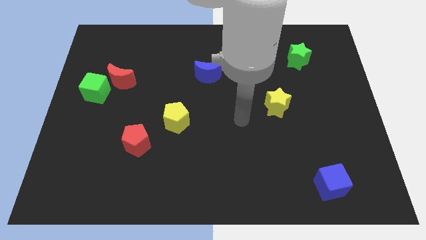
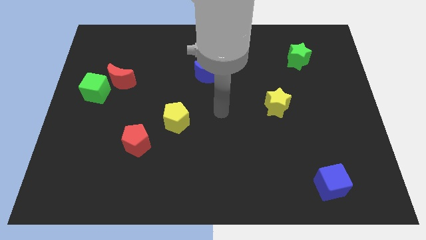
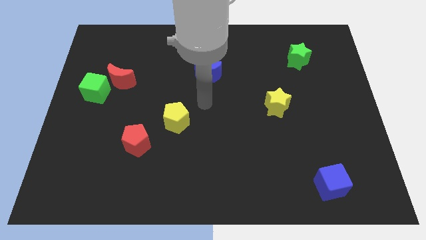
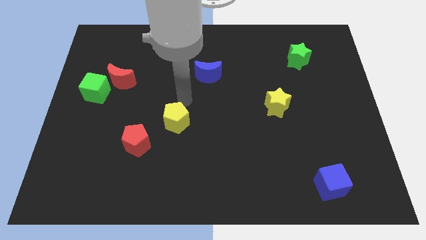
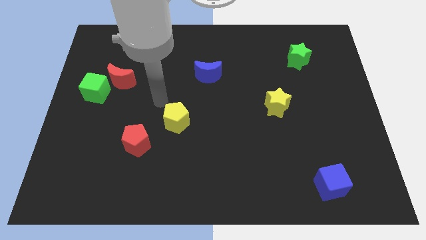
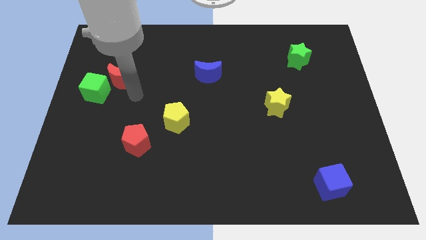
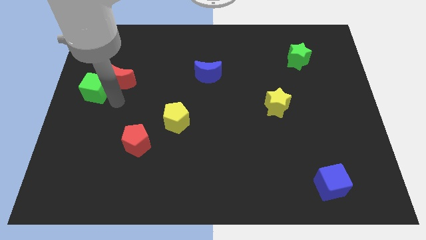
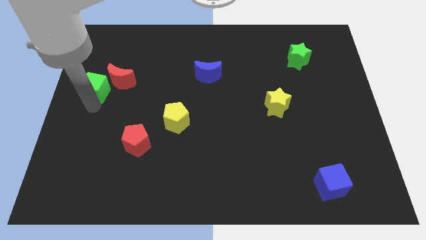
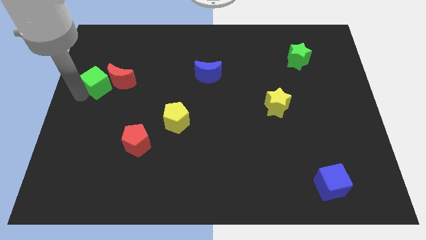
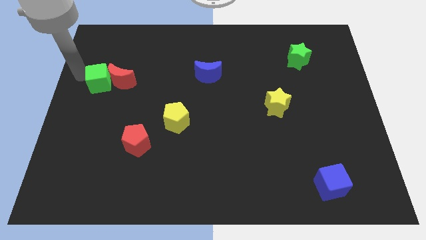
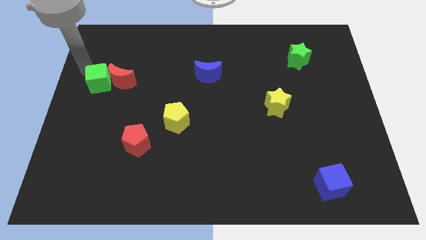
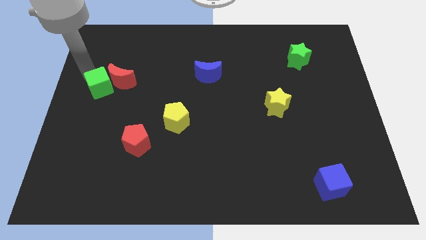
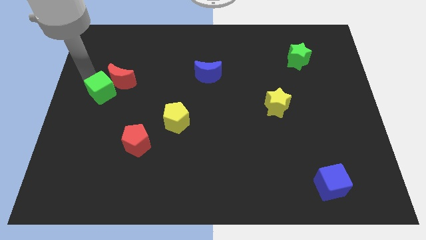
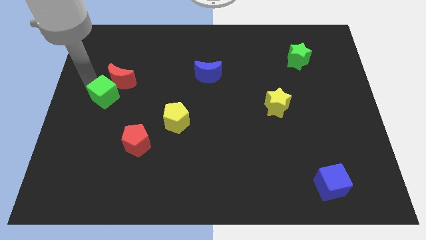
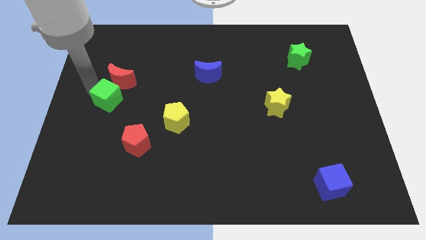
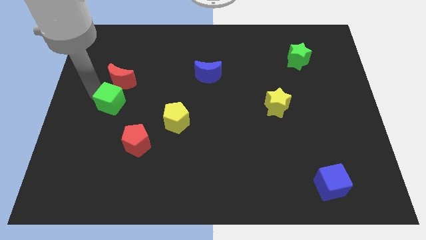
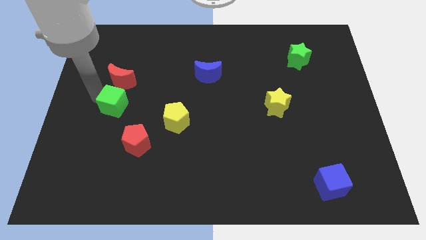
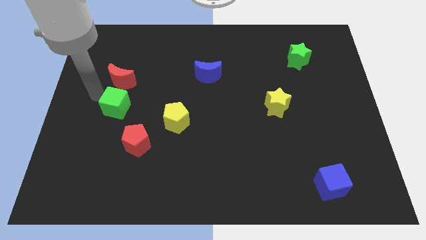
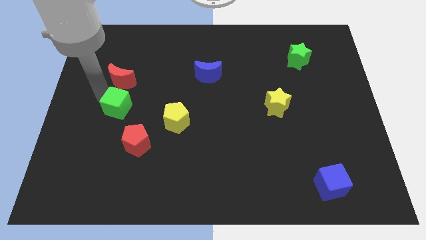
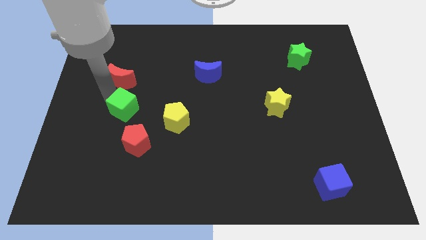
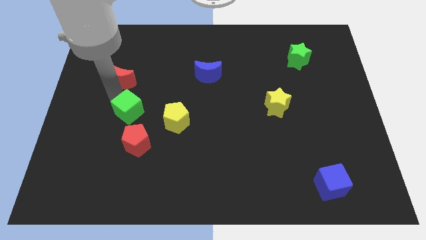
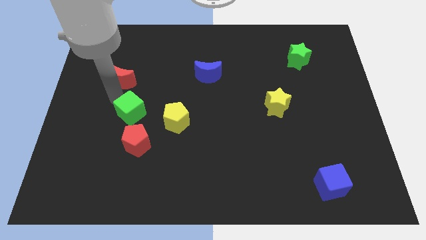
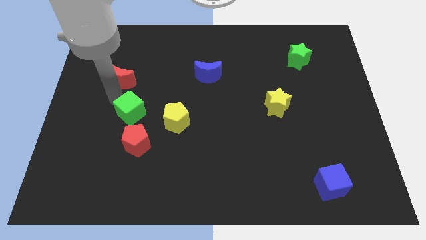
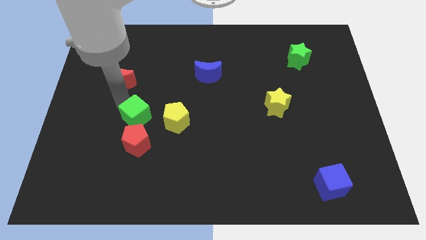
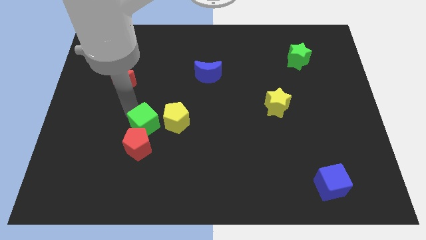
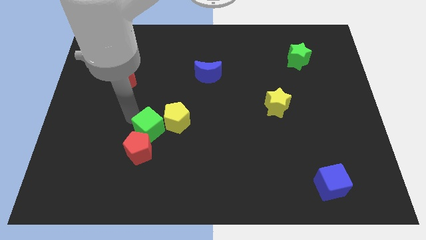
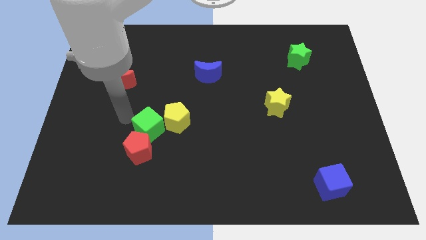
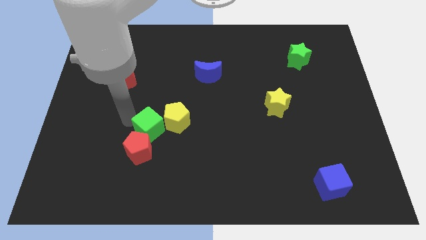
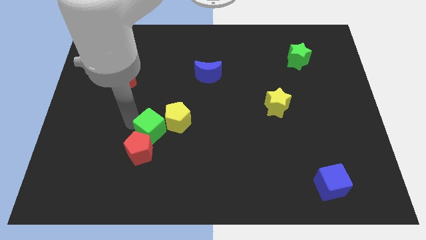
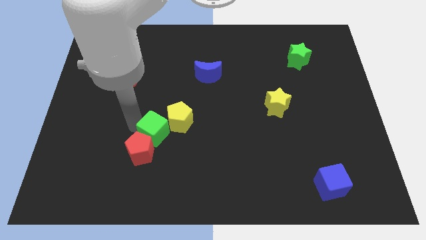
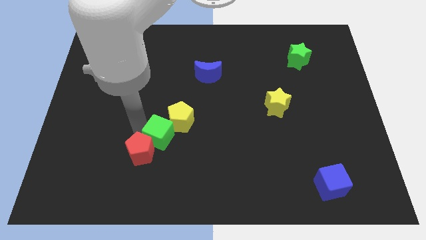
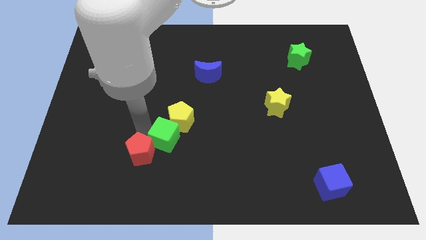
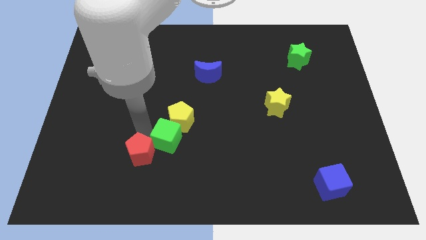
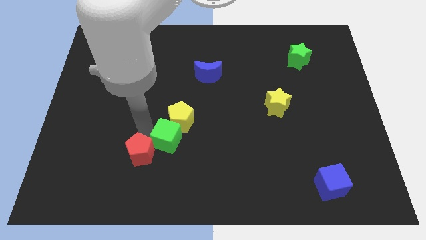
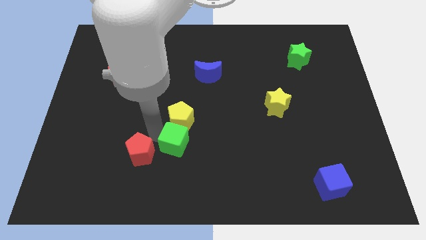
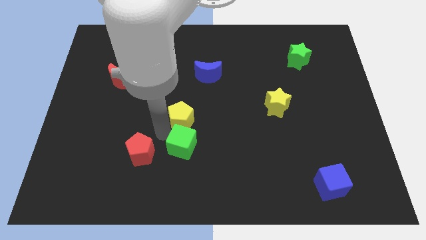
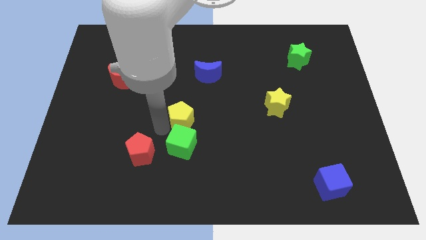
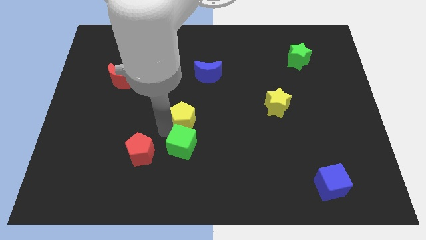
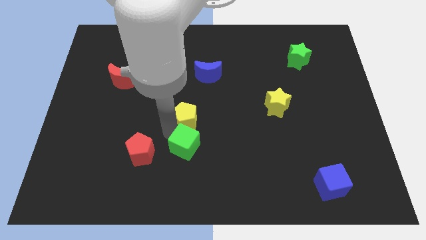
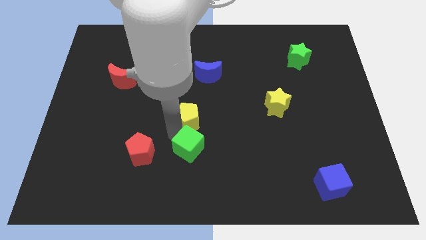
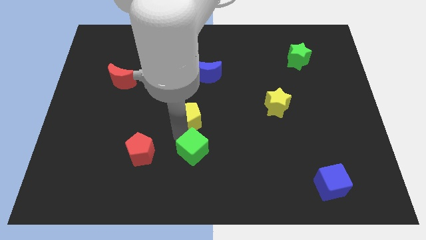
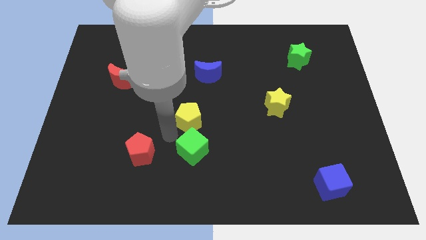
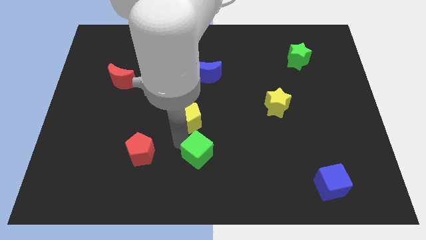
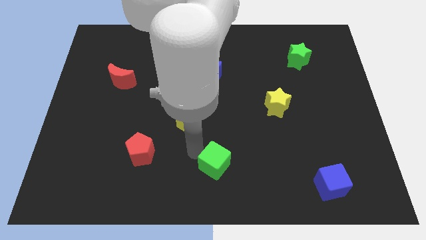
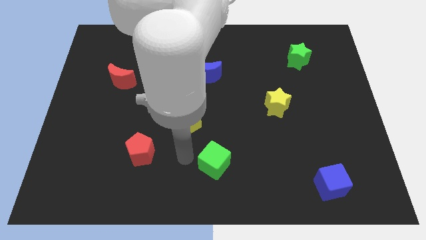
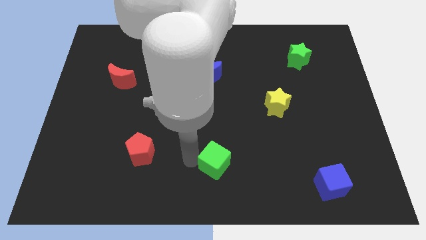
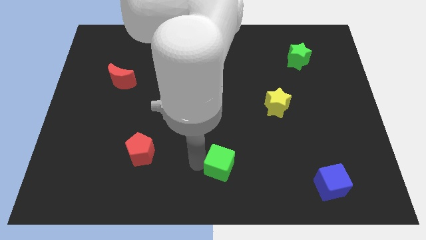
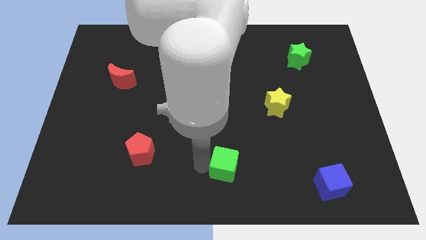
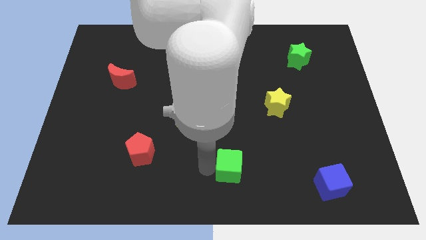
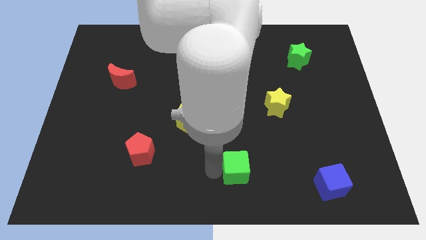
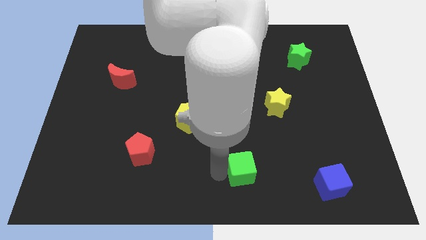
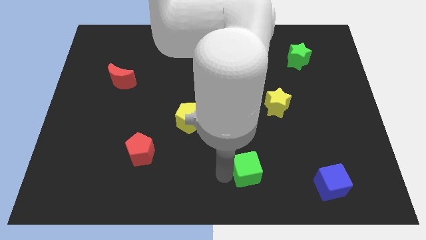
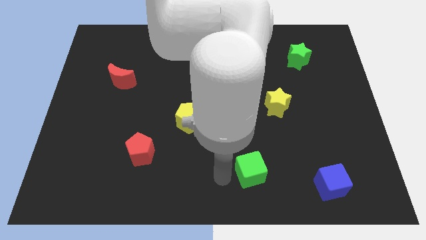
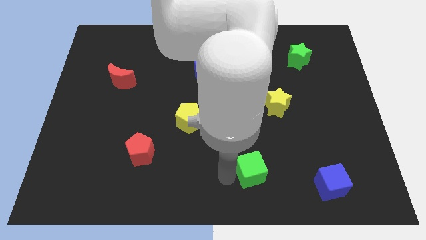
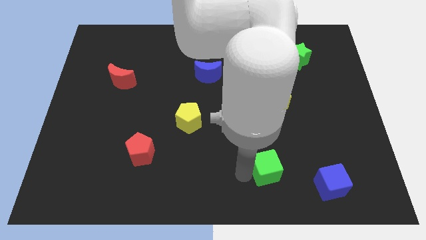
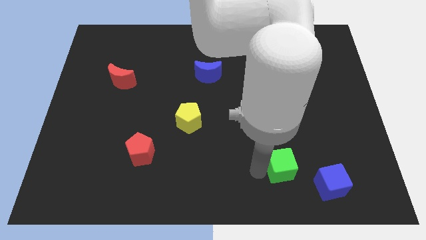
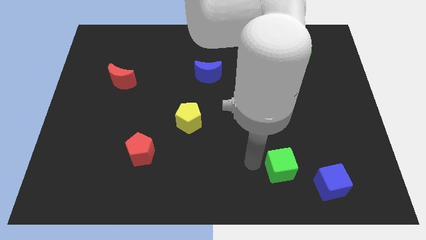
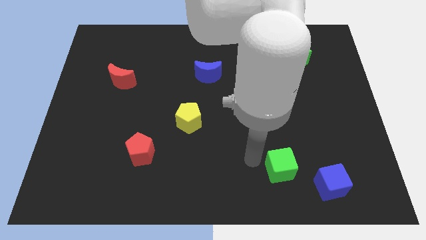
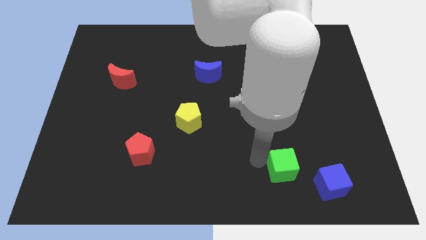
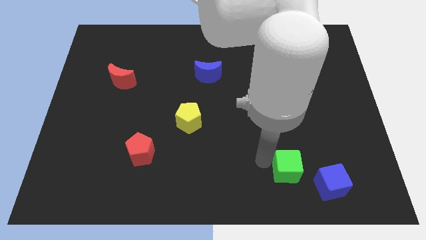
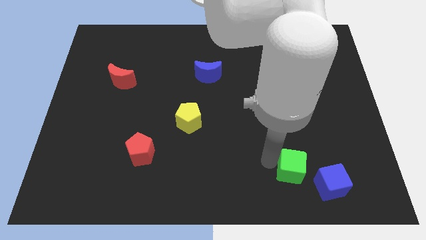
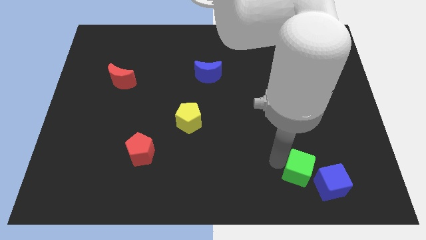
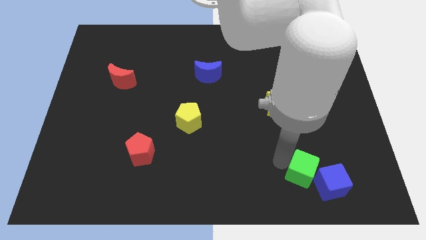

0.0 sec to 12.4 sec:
slide the green cube to the blue cube

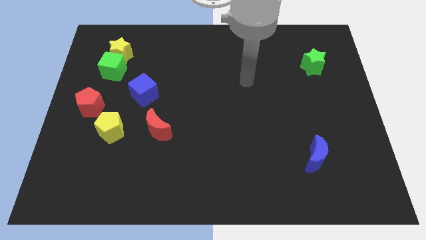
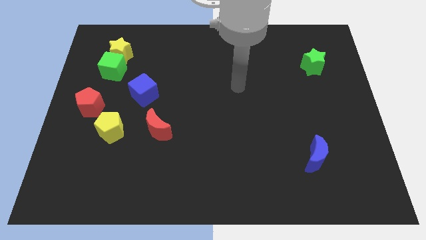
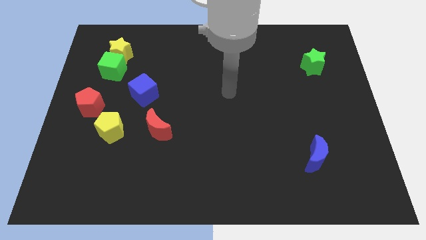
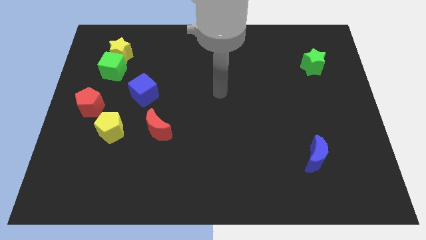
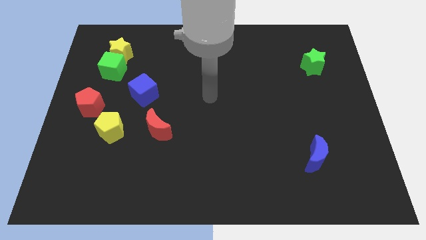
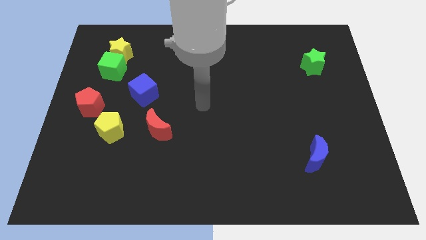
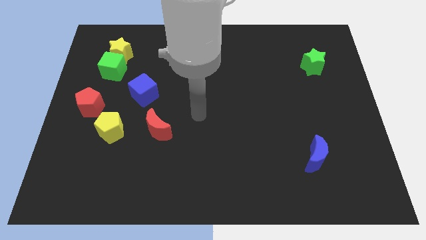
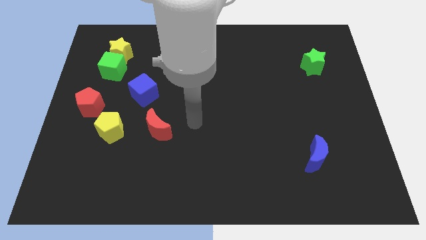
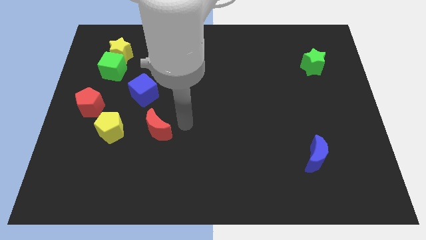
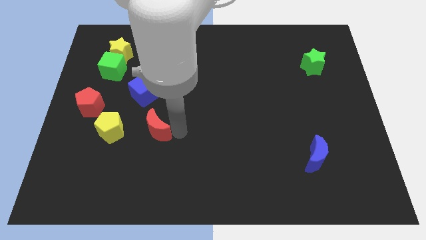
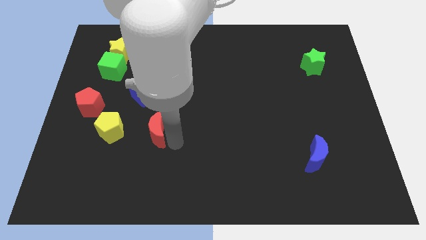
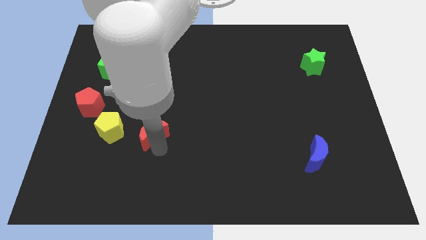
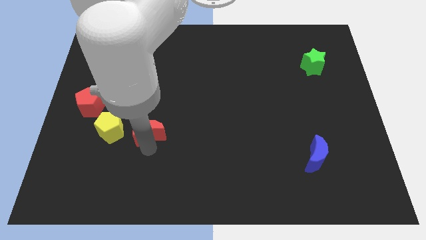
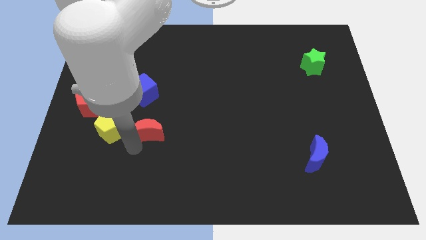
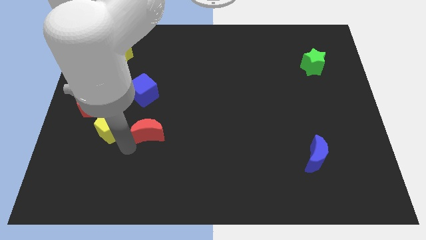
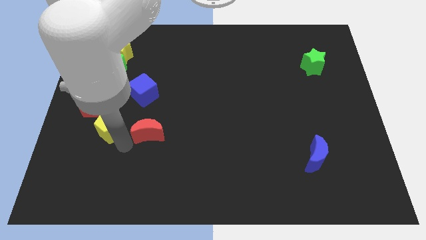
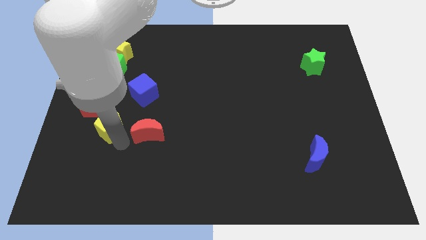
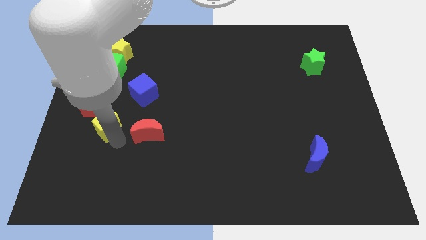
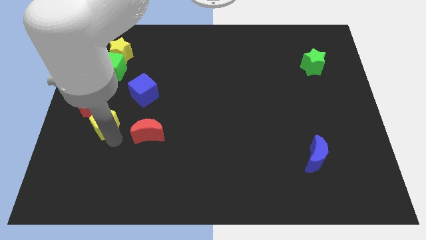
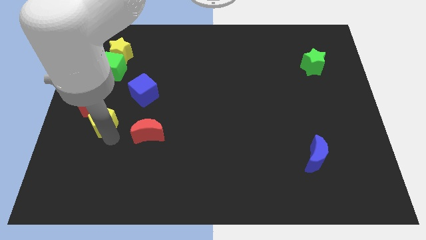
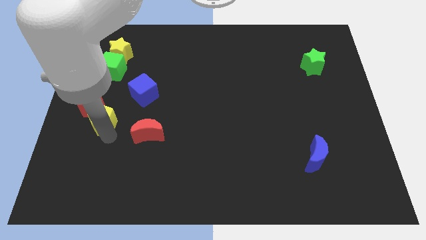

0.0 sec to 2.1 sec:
put the yellow pentagon close to the red pentagon
